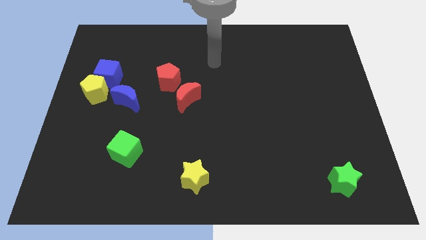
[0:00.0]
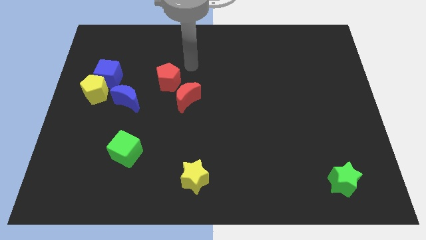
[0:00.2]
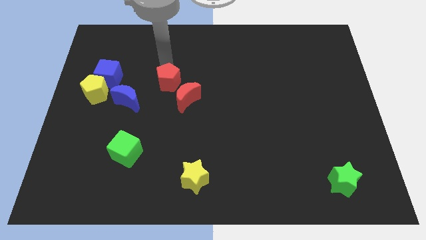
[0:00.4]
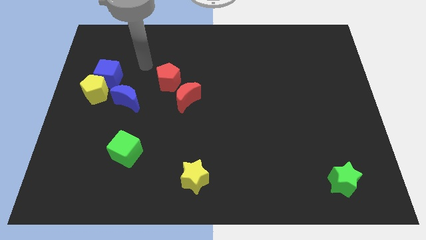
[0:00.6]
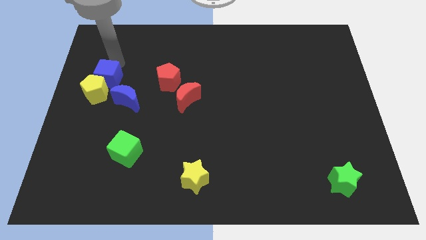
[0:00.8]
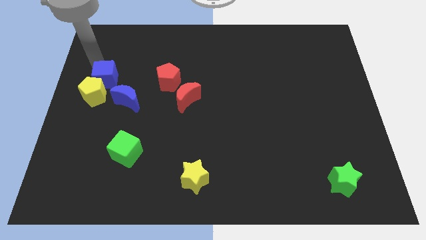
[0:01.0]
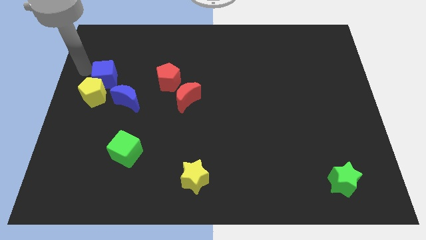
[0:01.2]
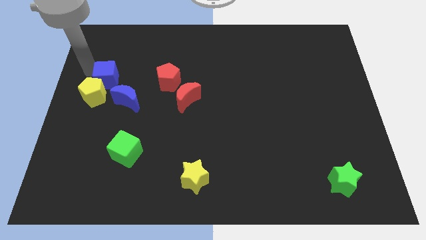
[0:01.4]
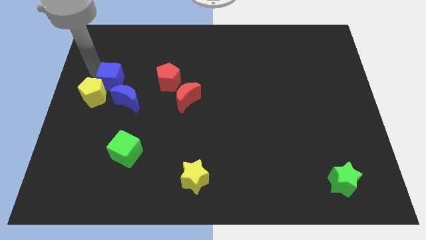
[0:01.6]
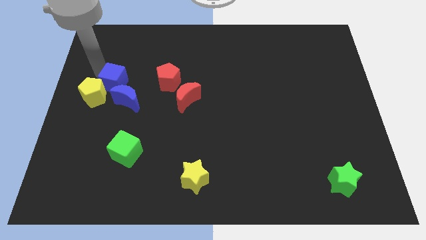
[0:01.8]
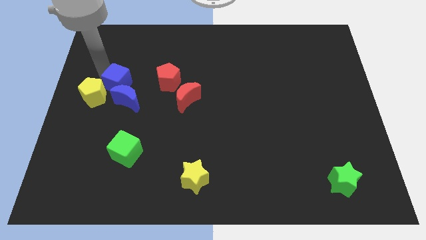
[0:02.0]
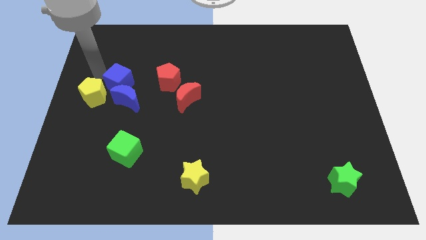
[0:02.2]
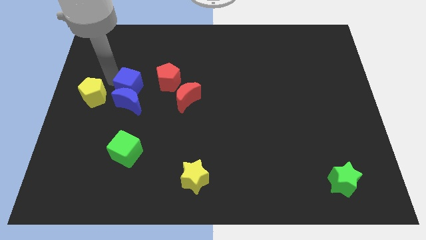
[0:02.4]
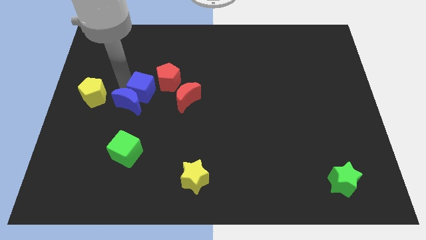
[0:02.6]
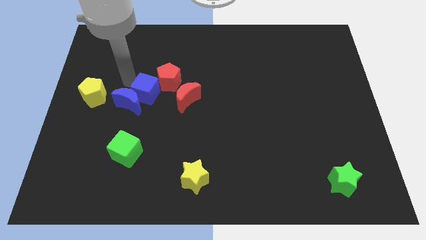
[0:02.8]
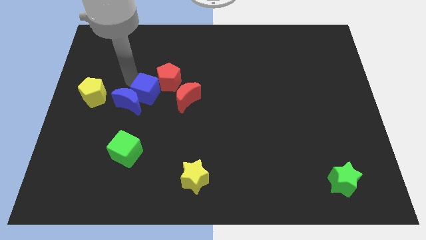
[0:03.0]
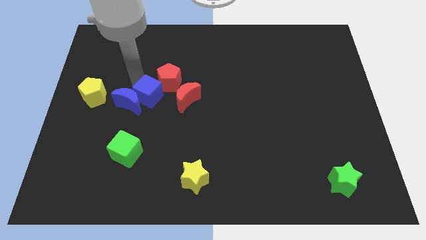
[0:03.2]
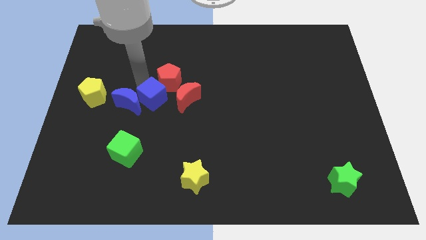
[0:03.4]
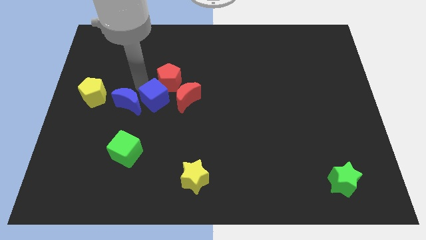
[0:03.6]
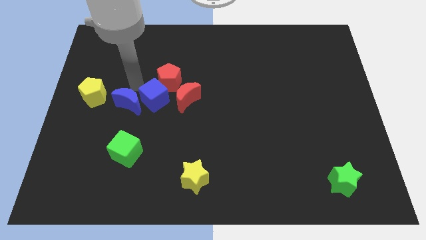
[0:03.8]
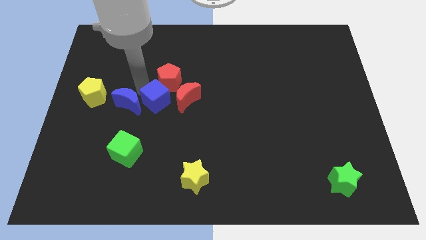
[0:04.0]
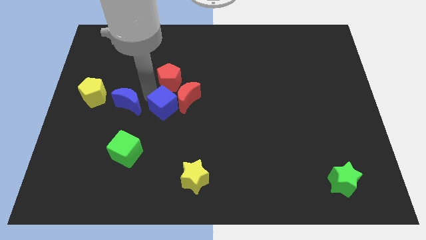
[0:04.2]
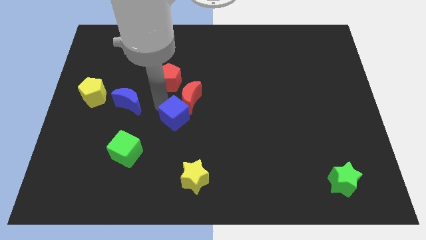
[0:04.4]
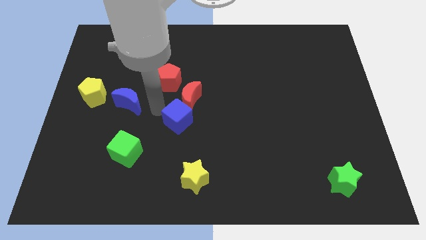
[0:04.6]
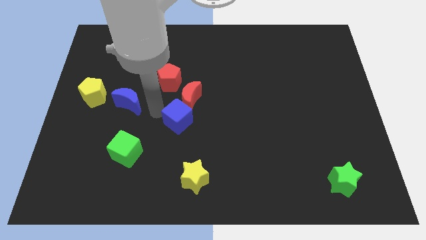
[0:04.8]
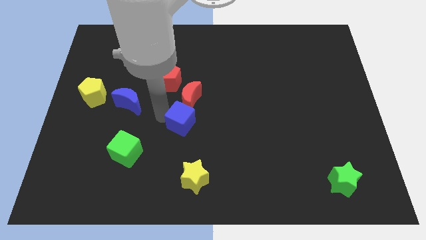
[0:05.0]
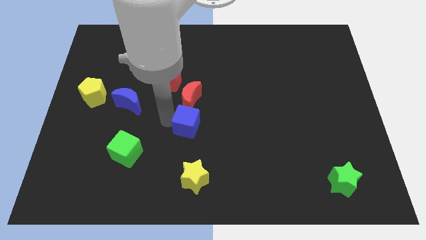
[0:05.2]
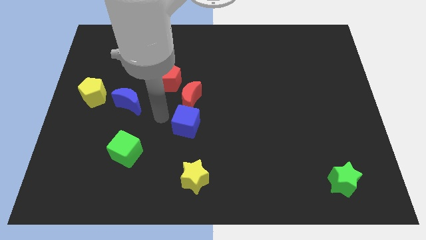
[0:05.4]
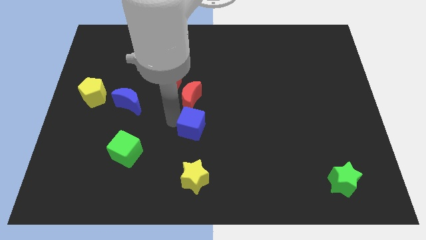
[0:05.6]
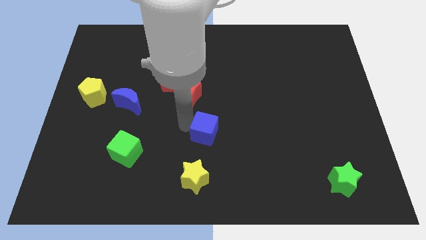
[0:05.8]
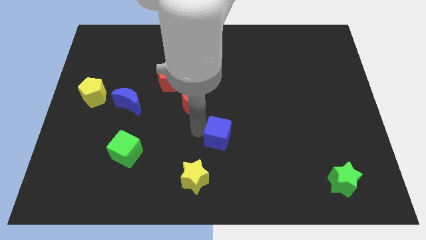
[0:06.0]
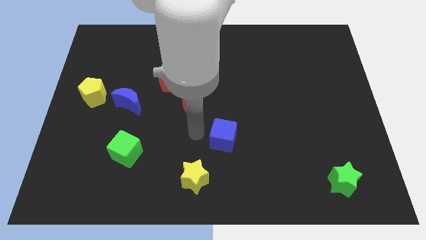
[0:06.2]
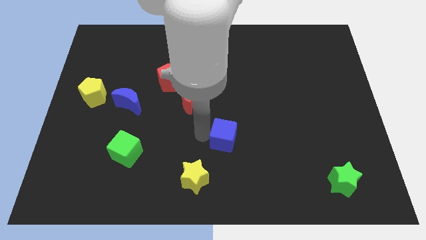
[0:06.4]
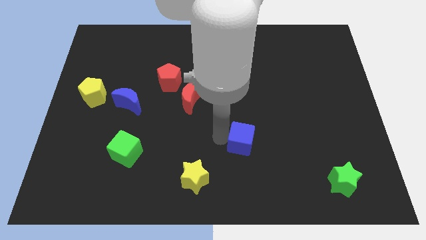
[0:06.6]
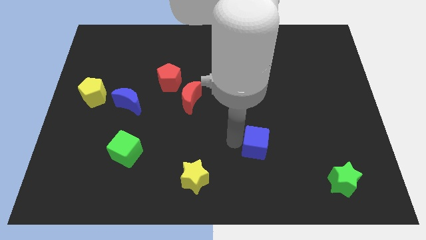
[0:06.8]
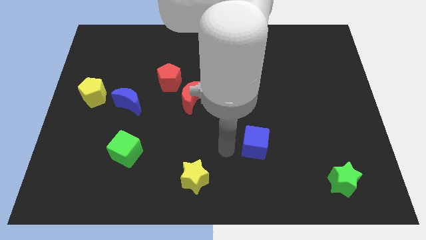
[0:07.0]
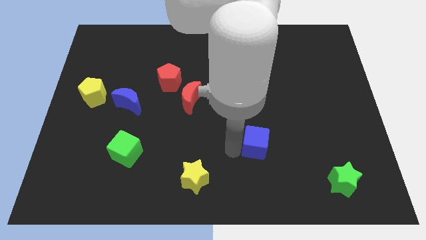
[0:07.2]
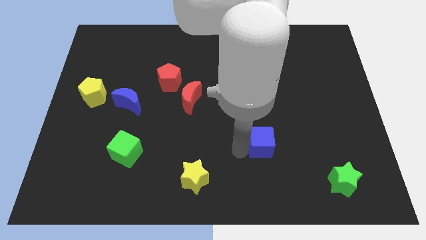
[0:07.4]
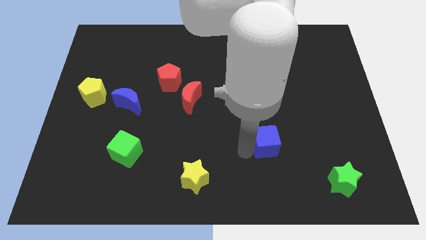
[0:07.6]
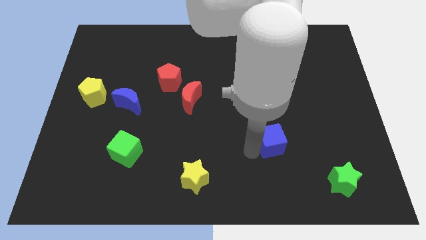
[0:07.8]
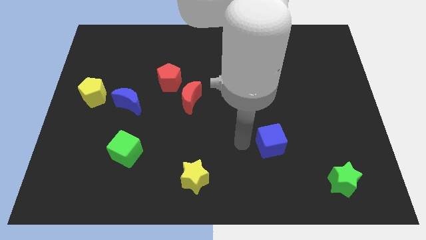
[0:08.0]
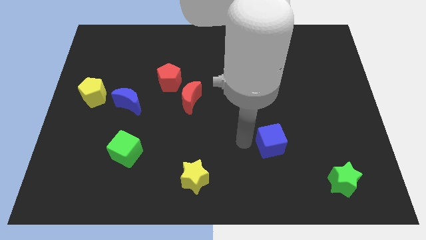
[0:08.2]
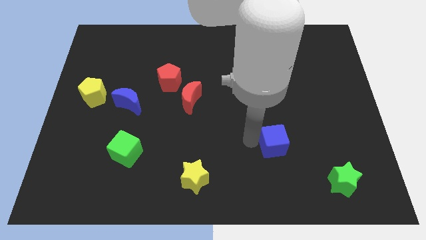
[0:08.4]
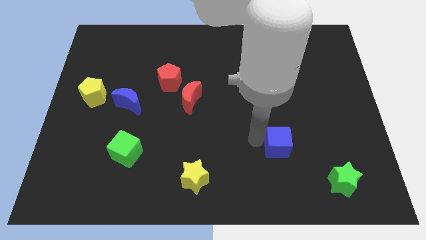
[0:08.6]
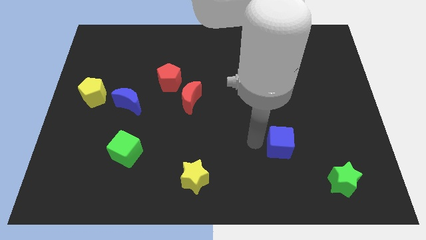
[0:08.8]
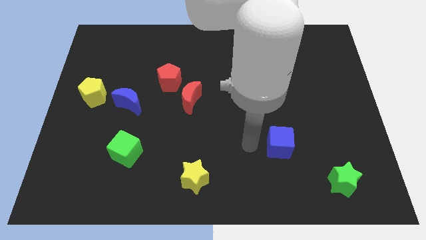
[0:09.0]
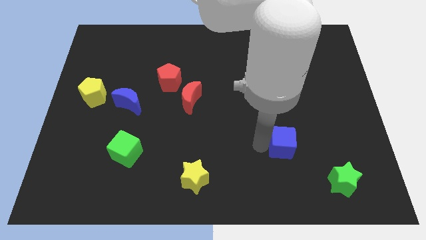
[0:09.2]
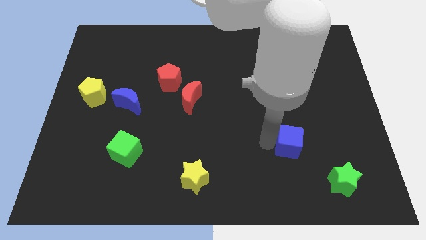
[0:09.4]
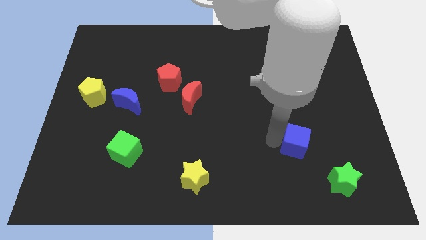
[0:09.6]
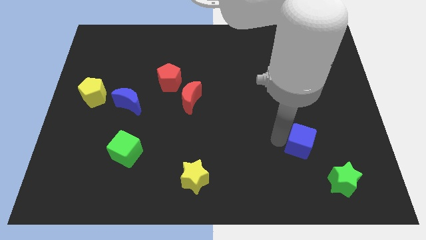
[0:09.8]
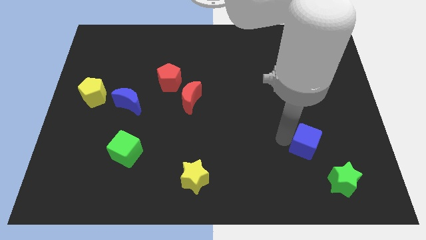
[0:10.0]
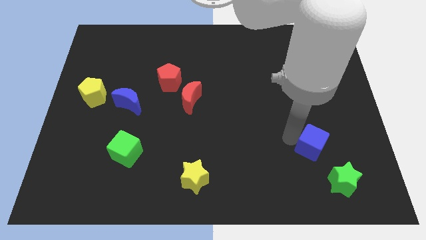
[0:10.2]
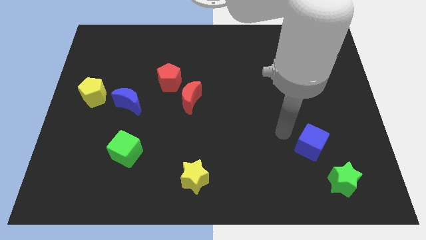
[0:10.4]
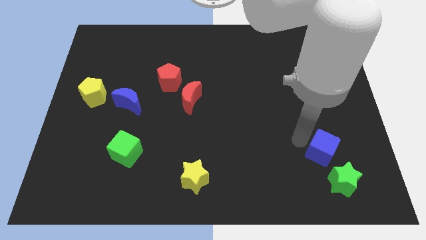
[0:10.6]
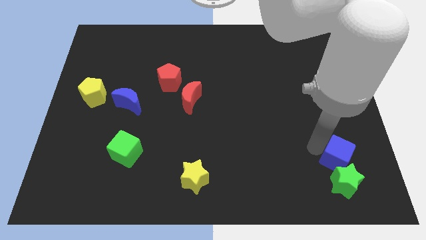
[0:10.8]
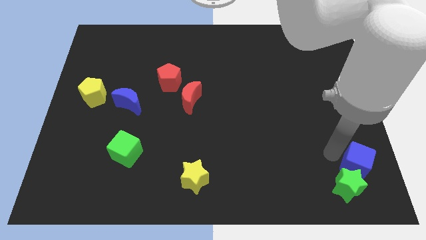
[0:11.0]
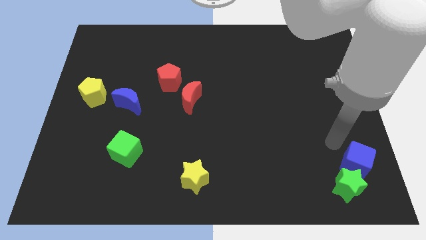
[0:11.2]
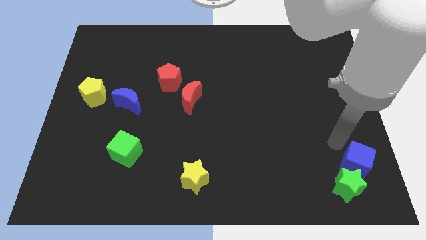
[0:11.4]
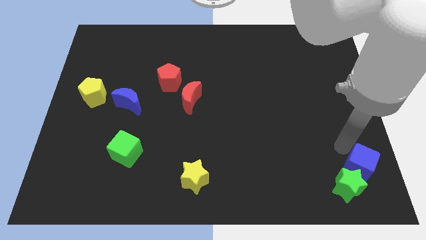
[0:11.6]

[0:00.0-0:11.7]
slide the blue cube to the bottom right corner

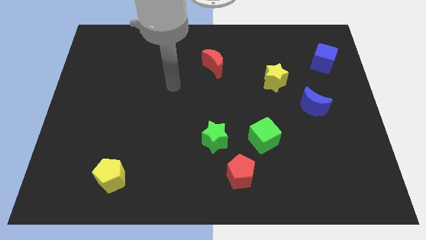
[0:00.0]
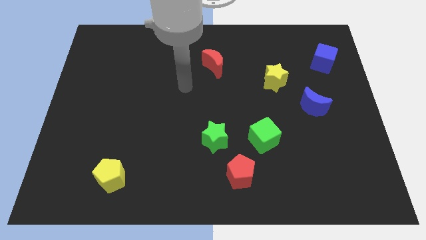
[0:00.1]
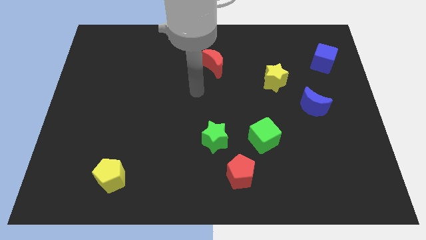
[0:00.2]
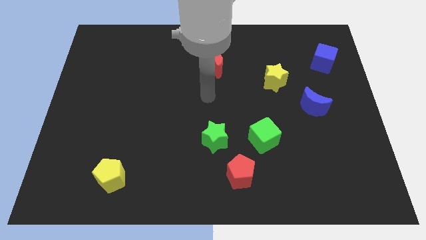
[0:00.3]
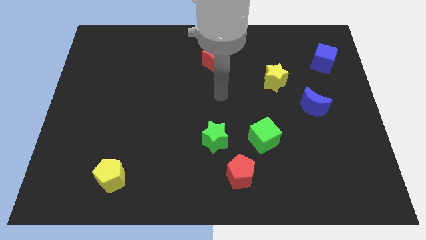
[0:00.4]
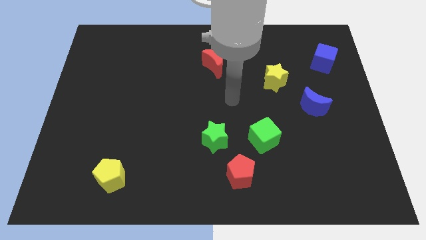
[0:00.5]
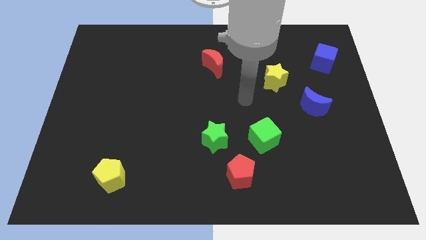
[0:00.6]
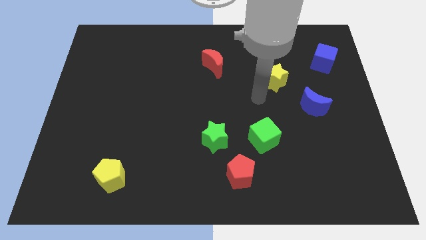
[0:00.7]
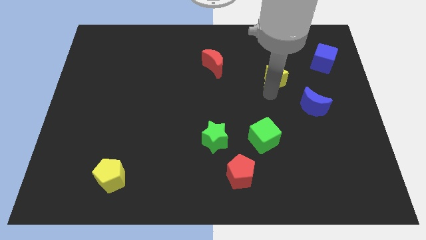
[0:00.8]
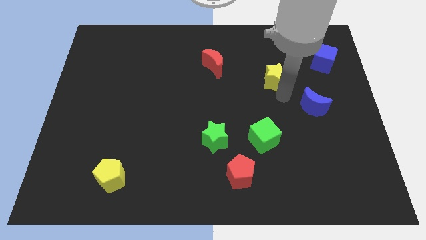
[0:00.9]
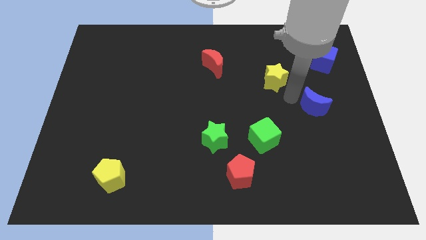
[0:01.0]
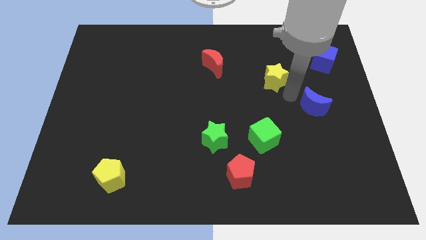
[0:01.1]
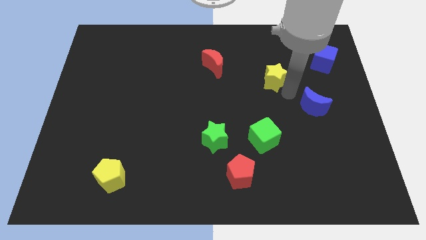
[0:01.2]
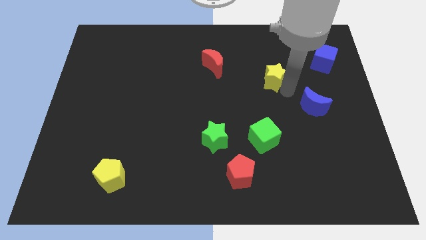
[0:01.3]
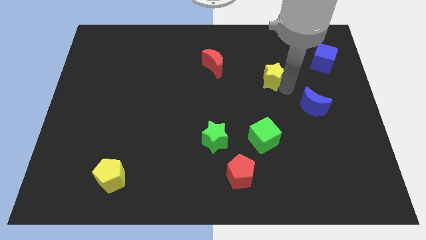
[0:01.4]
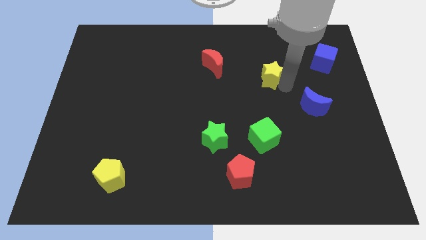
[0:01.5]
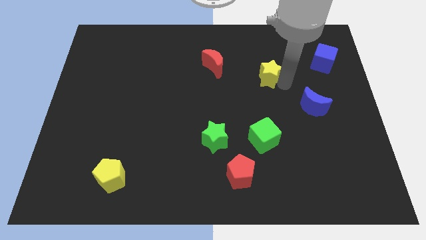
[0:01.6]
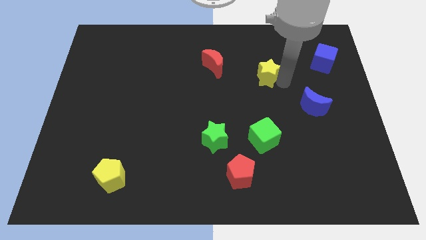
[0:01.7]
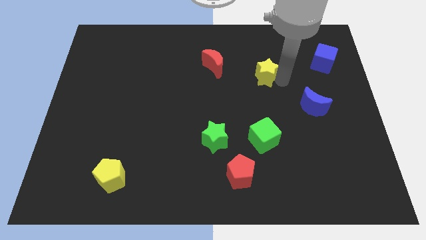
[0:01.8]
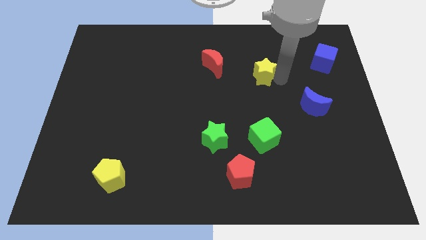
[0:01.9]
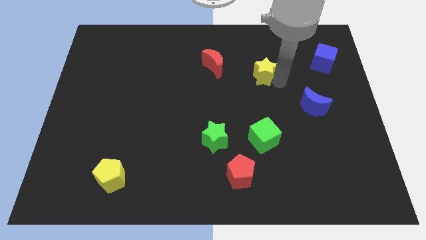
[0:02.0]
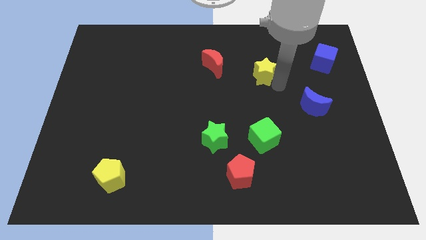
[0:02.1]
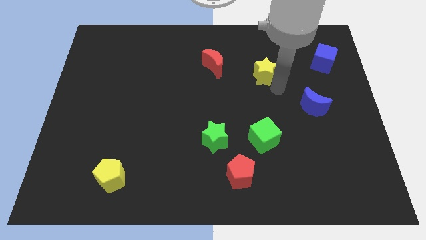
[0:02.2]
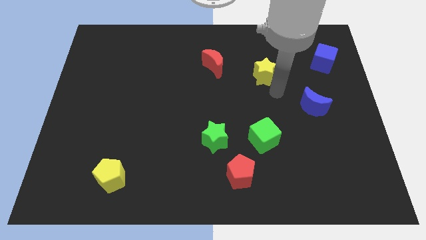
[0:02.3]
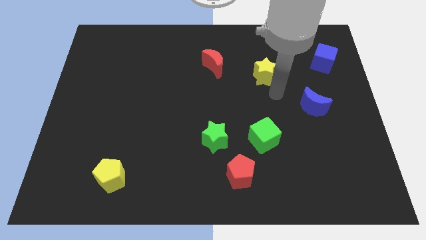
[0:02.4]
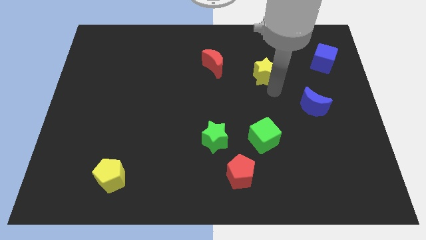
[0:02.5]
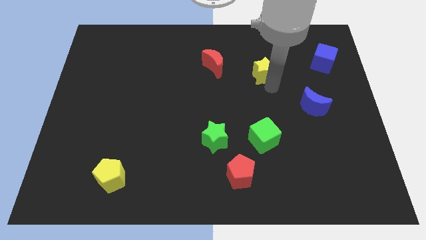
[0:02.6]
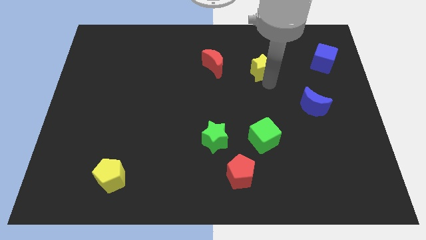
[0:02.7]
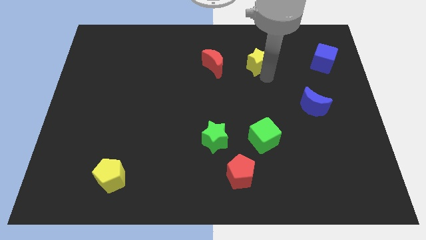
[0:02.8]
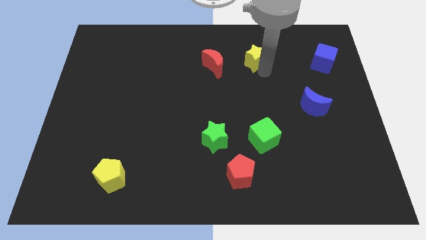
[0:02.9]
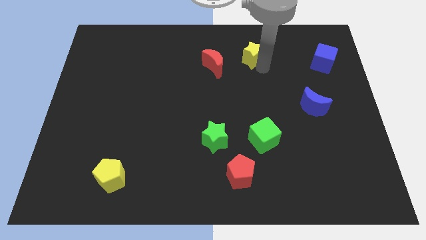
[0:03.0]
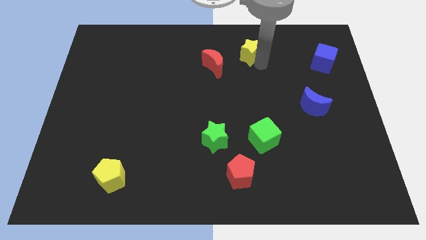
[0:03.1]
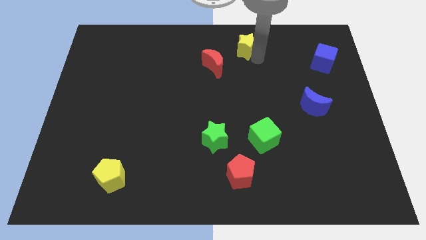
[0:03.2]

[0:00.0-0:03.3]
move the yellow star to the top
